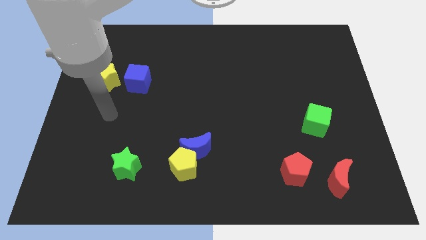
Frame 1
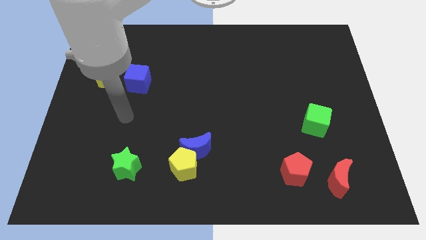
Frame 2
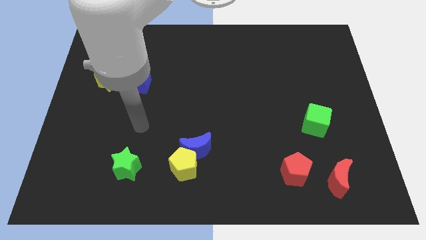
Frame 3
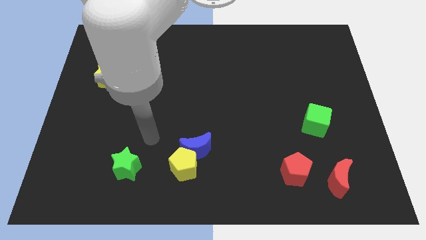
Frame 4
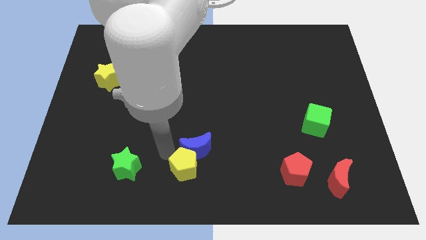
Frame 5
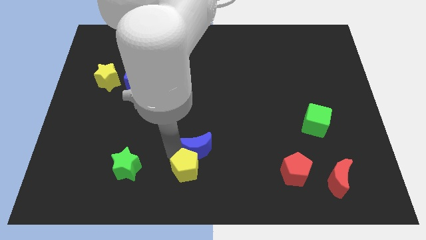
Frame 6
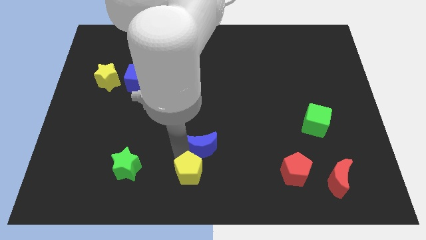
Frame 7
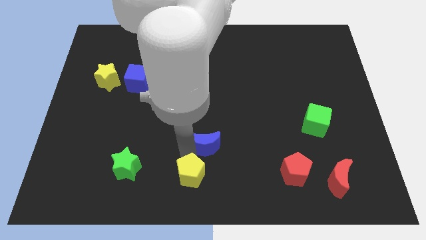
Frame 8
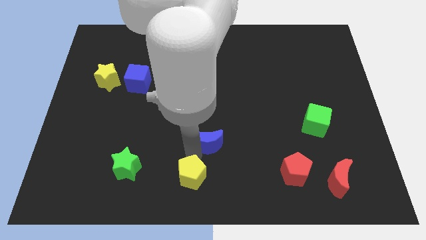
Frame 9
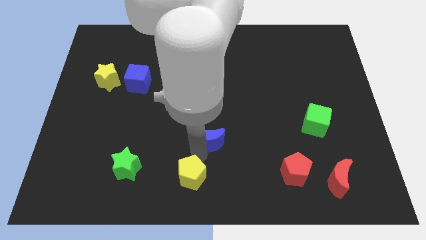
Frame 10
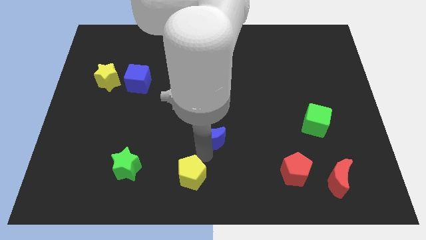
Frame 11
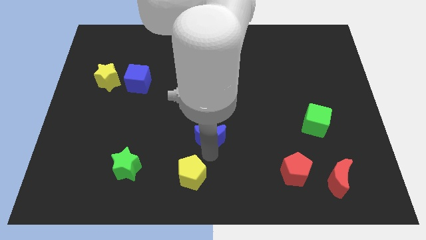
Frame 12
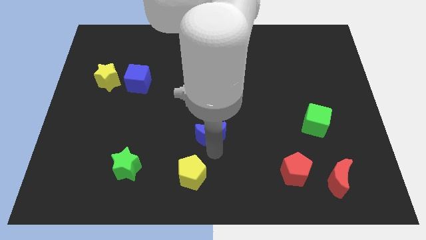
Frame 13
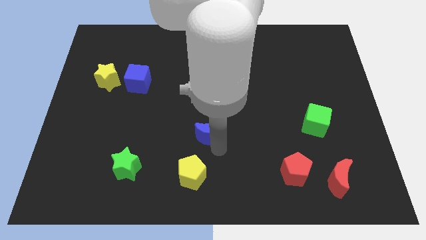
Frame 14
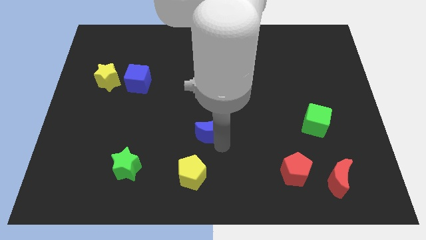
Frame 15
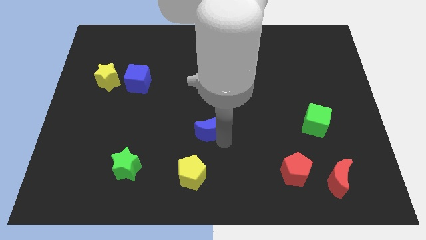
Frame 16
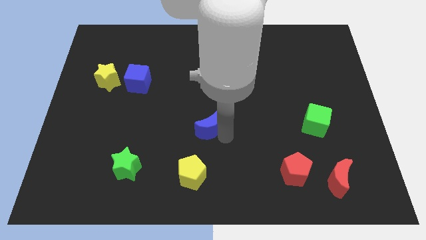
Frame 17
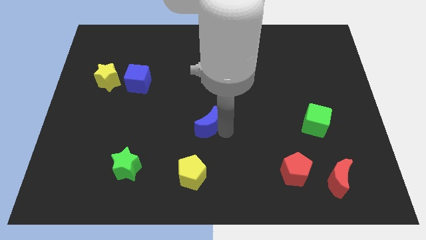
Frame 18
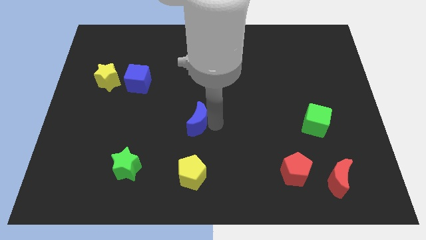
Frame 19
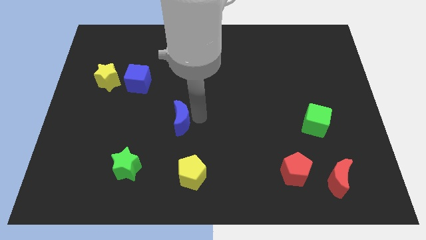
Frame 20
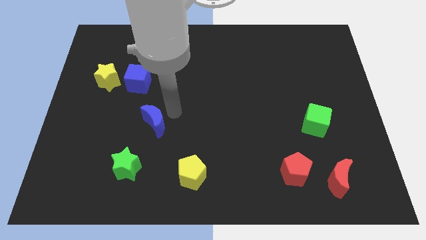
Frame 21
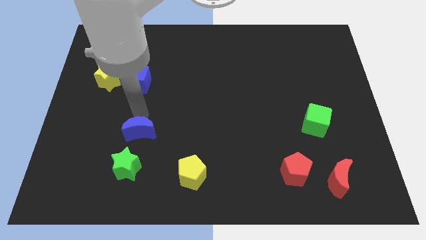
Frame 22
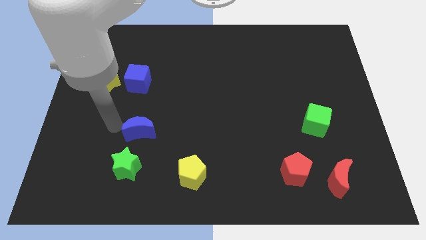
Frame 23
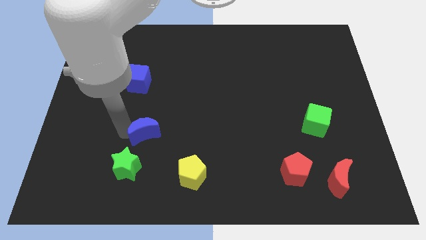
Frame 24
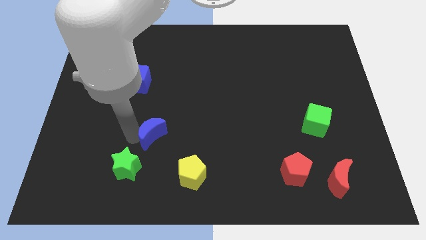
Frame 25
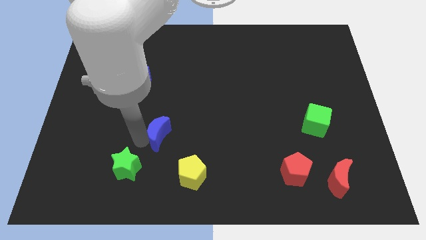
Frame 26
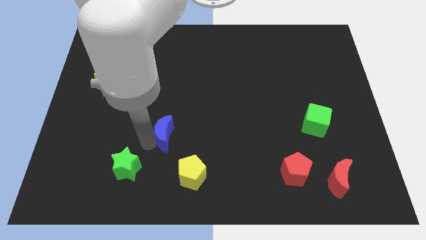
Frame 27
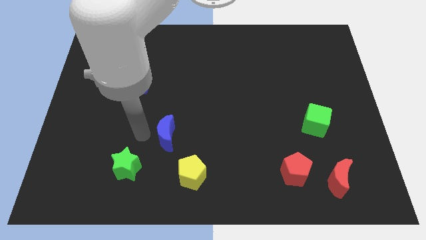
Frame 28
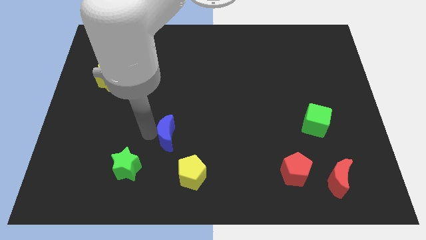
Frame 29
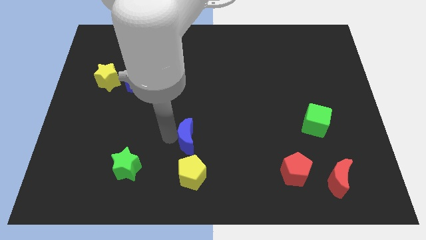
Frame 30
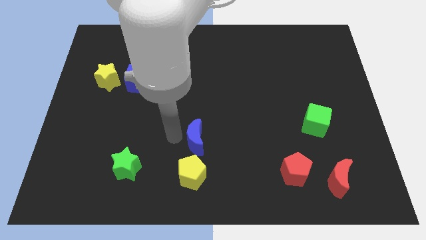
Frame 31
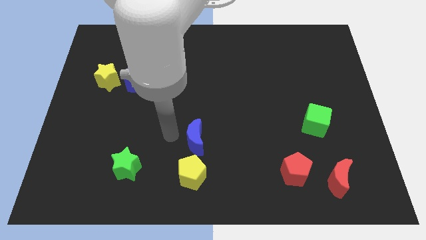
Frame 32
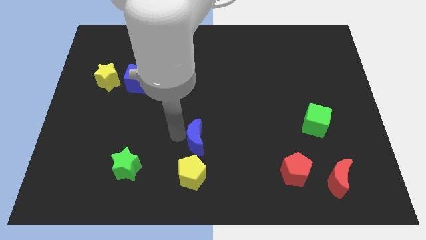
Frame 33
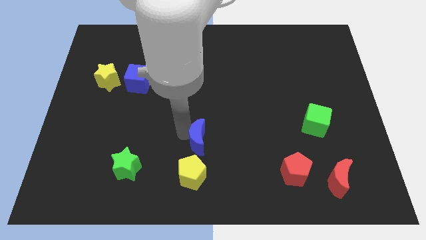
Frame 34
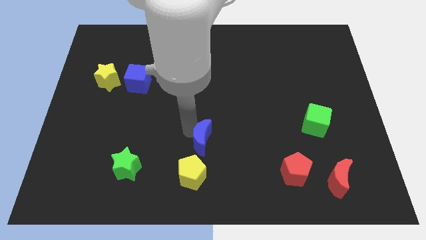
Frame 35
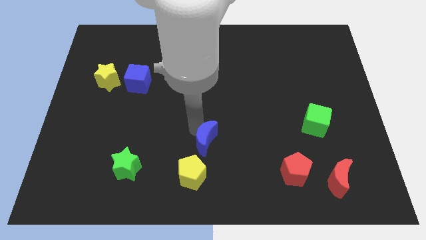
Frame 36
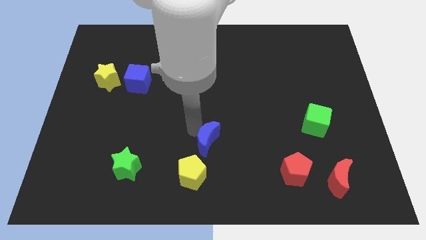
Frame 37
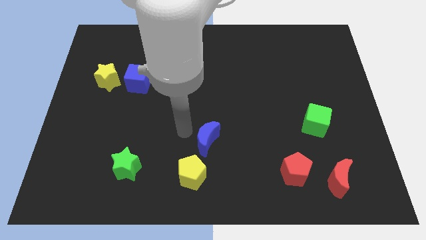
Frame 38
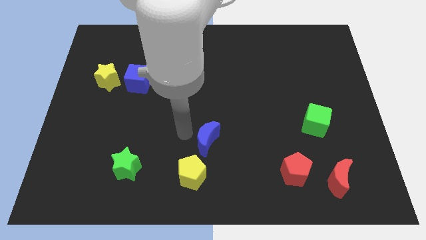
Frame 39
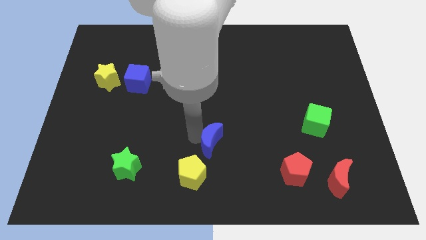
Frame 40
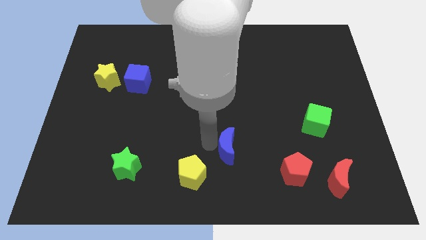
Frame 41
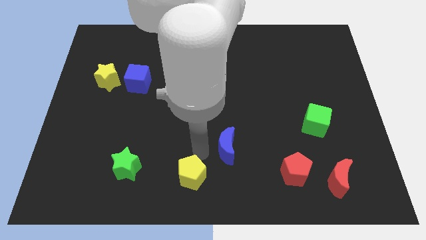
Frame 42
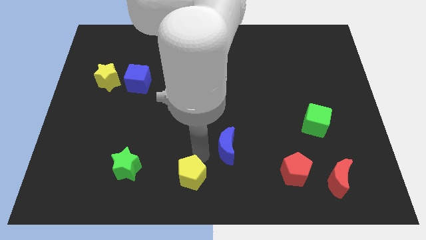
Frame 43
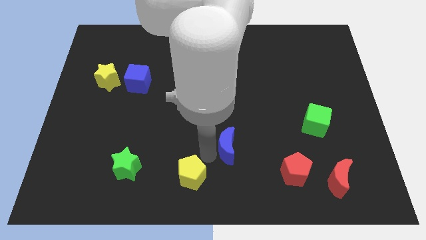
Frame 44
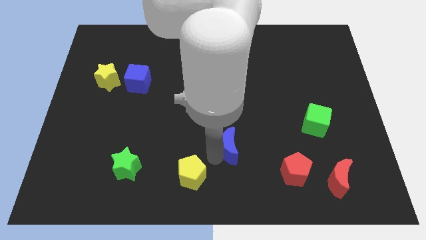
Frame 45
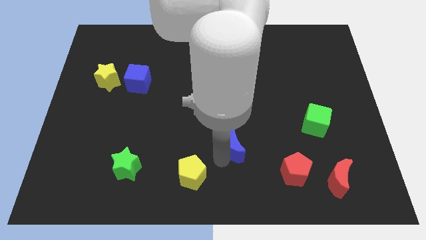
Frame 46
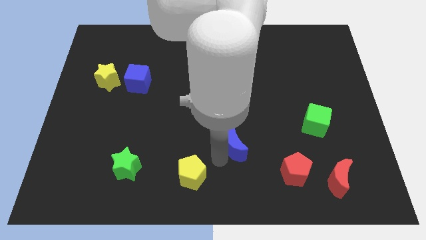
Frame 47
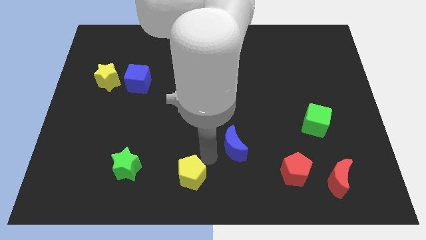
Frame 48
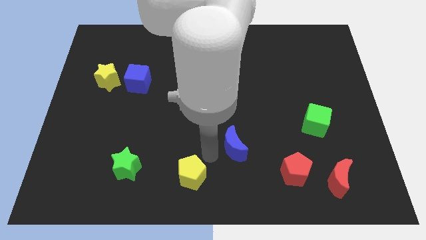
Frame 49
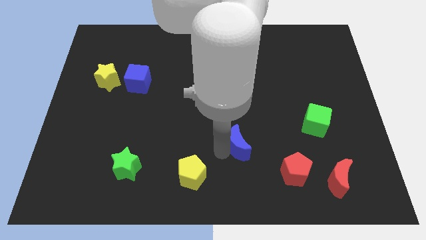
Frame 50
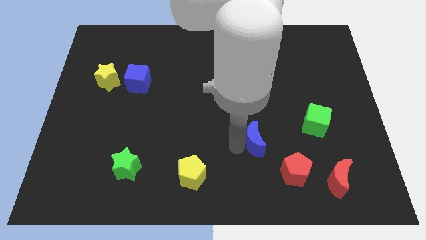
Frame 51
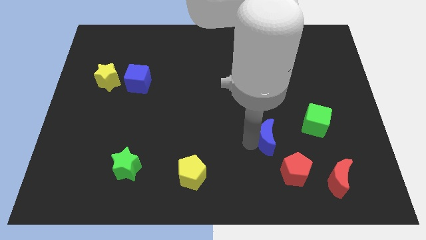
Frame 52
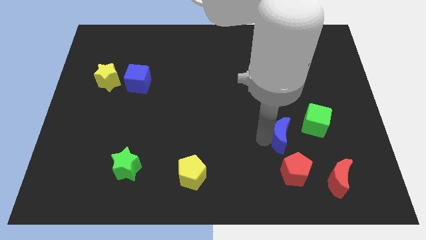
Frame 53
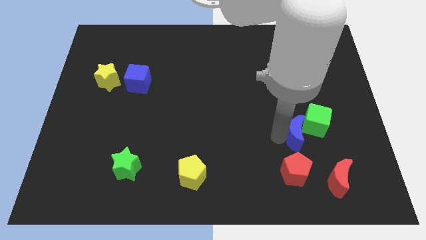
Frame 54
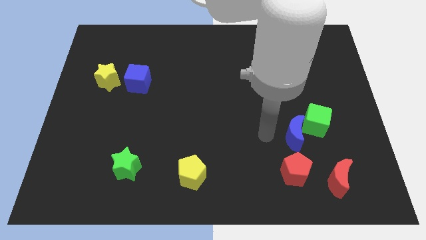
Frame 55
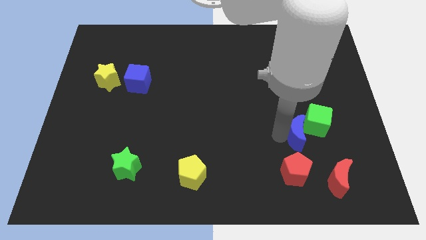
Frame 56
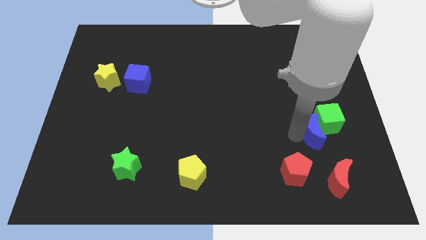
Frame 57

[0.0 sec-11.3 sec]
slide the blue moon to the top side of the red moon

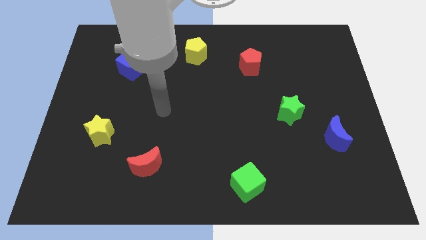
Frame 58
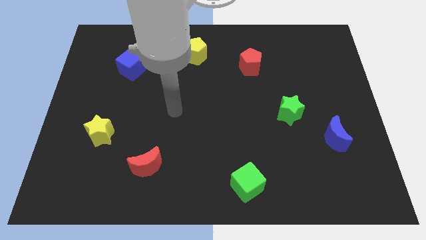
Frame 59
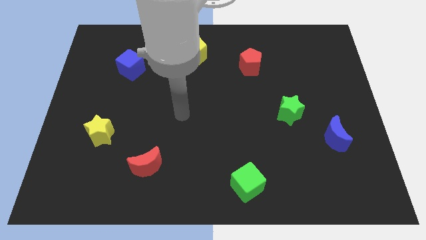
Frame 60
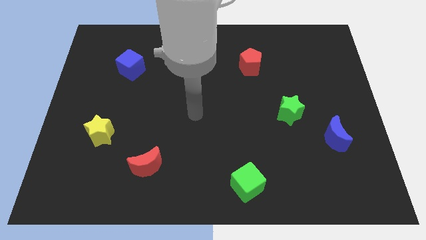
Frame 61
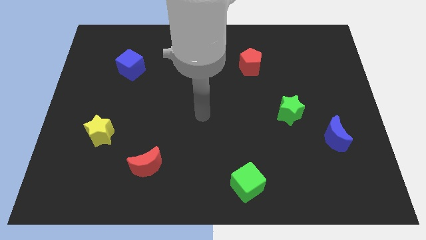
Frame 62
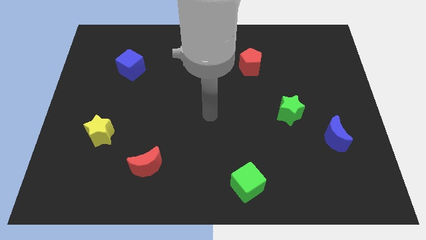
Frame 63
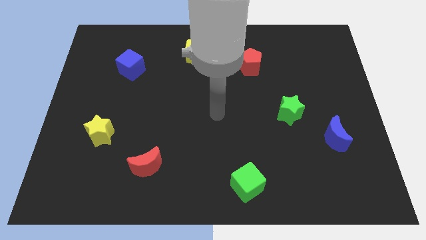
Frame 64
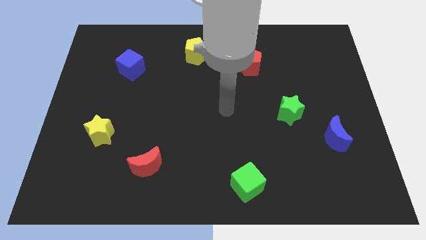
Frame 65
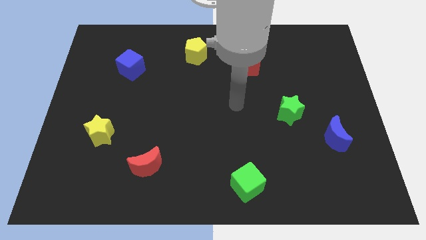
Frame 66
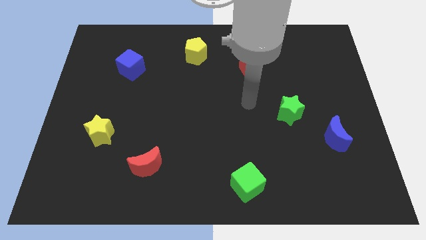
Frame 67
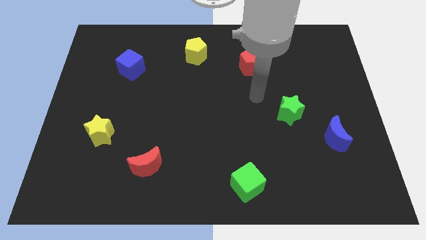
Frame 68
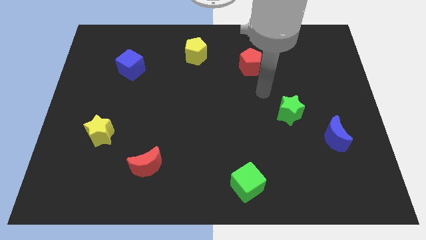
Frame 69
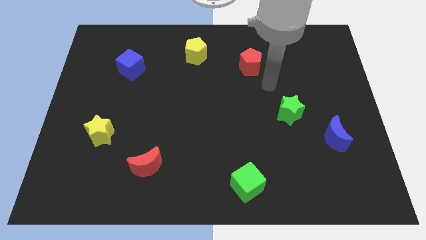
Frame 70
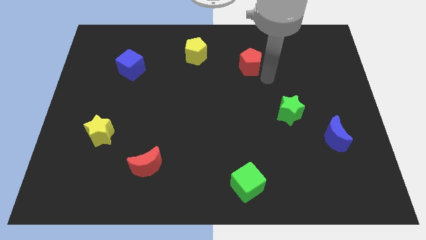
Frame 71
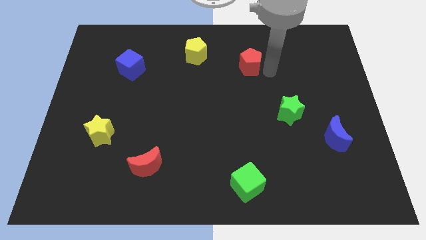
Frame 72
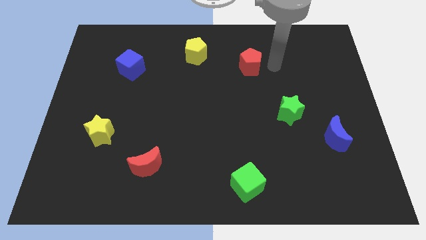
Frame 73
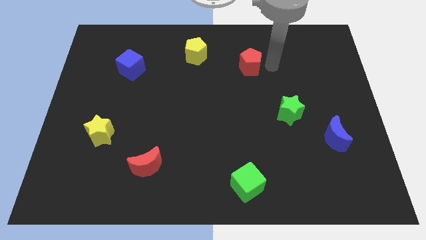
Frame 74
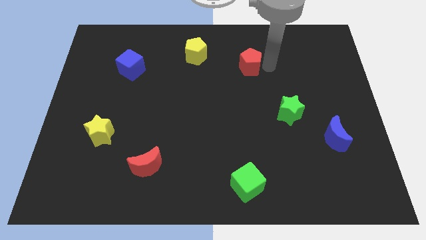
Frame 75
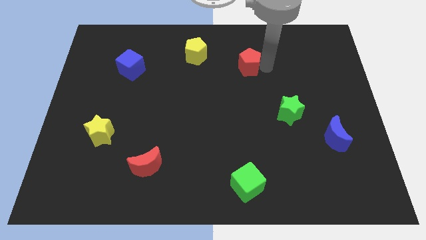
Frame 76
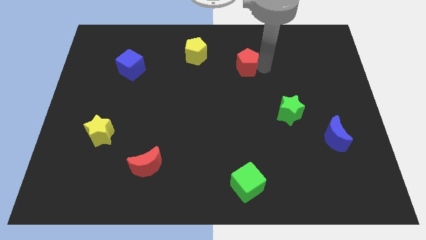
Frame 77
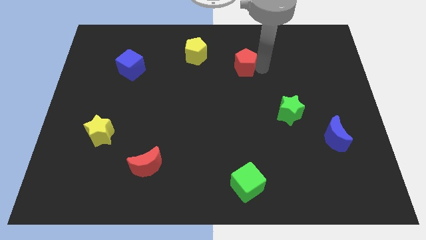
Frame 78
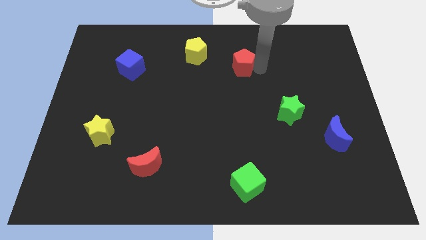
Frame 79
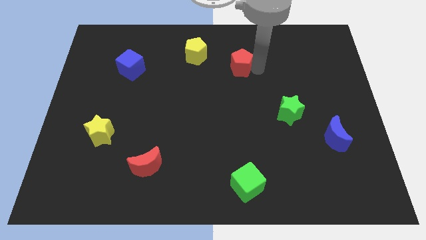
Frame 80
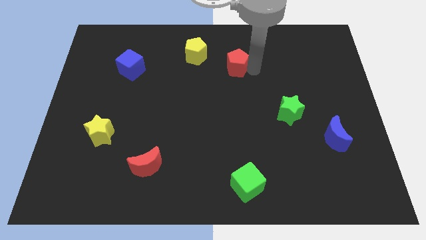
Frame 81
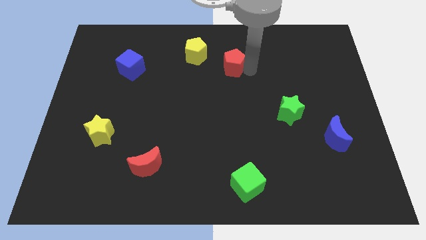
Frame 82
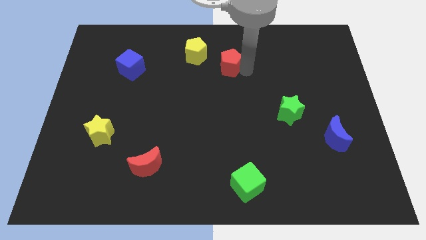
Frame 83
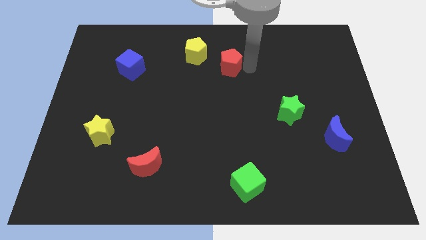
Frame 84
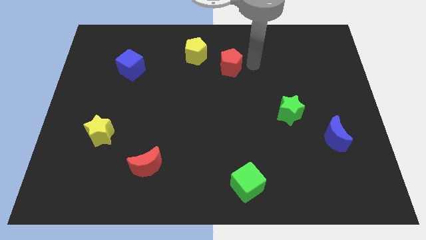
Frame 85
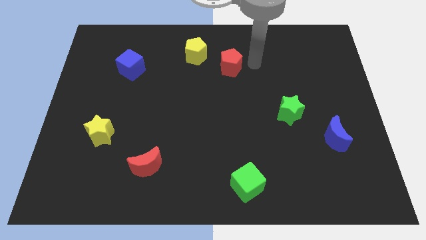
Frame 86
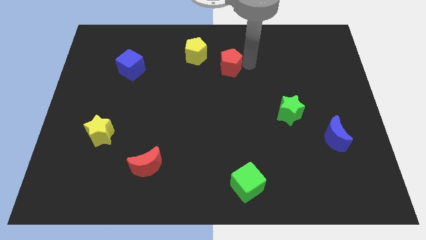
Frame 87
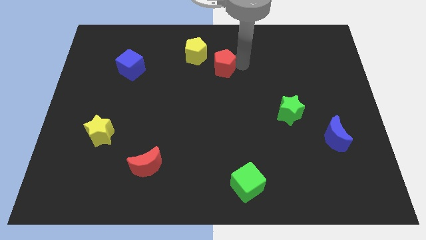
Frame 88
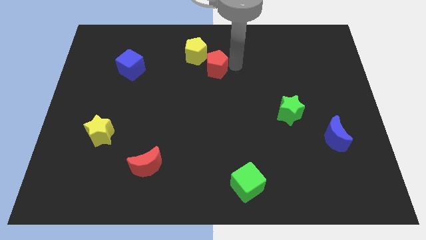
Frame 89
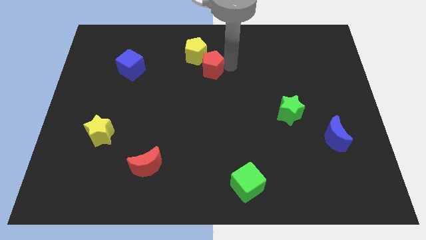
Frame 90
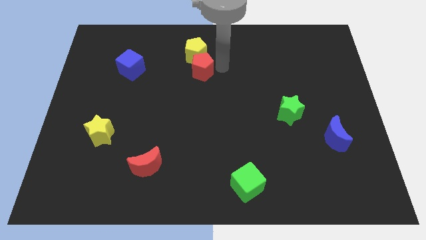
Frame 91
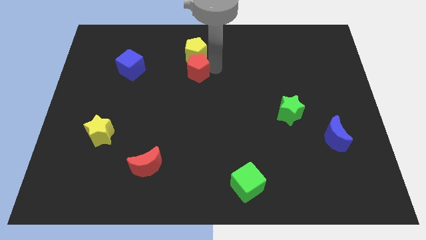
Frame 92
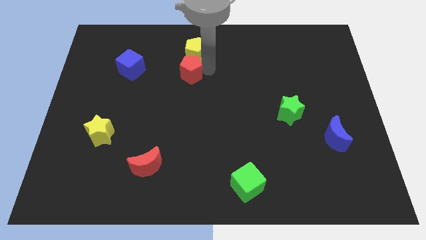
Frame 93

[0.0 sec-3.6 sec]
push the red pentagon to the right side of the blue cube
